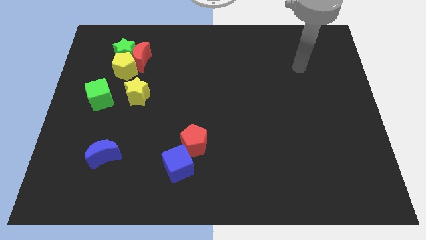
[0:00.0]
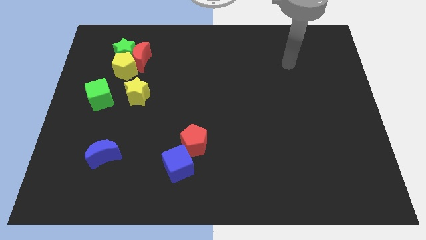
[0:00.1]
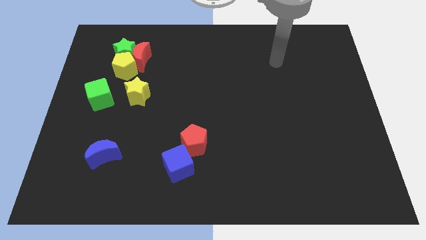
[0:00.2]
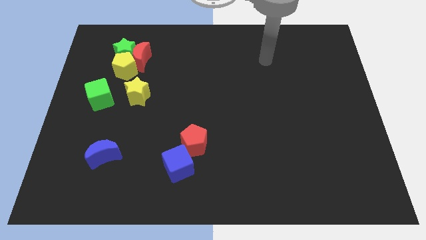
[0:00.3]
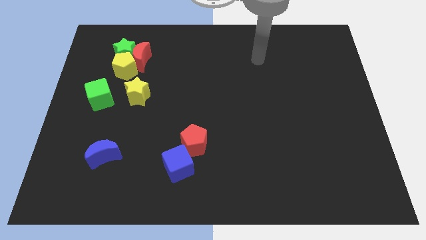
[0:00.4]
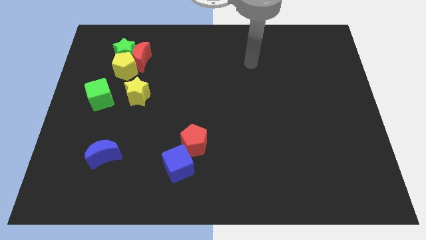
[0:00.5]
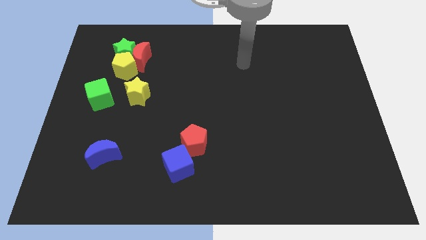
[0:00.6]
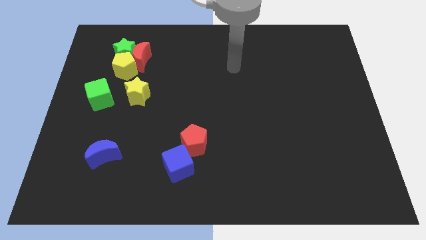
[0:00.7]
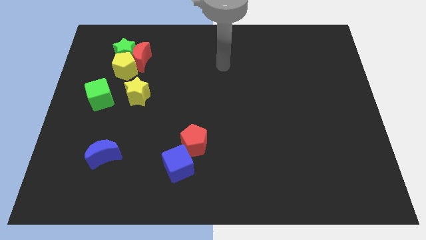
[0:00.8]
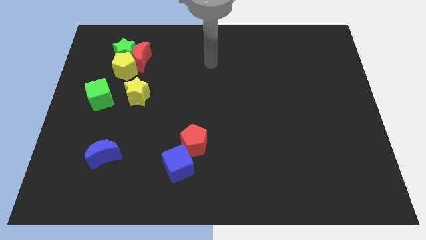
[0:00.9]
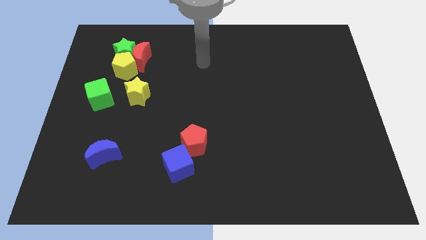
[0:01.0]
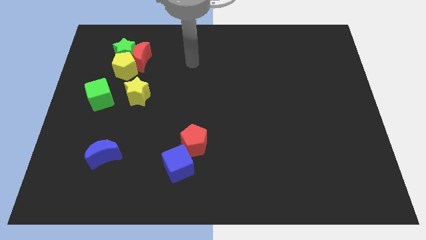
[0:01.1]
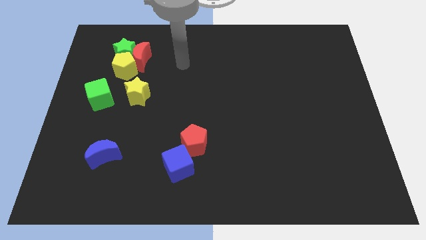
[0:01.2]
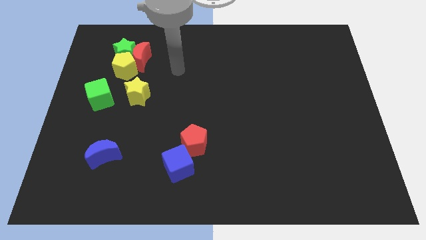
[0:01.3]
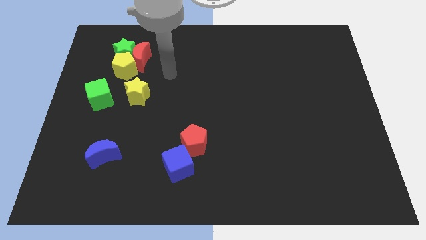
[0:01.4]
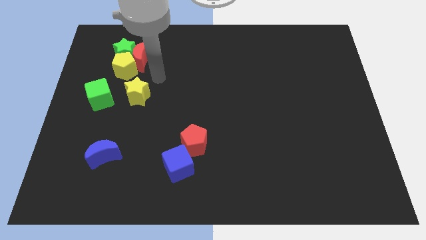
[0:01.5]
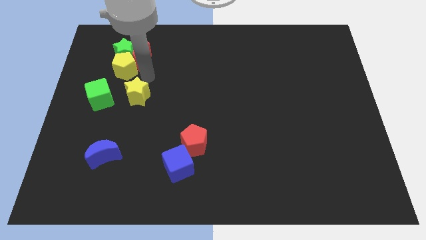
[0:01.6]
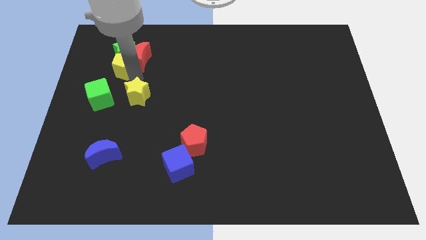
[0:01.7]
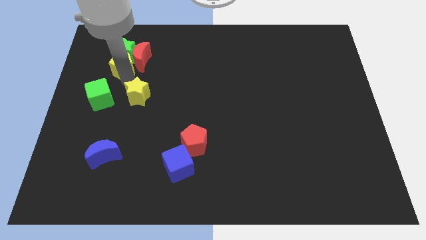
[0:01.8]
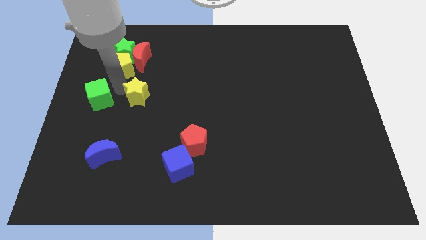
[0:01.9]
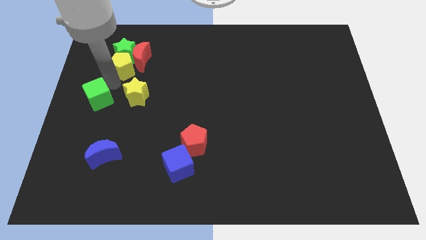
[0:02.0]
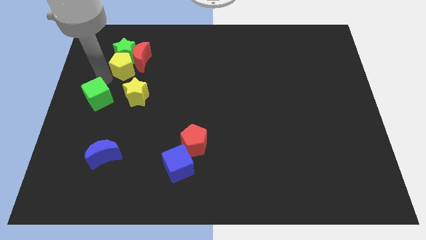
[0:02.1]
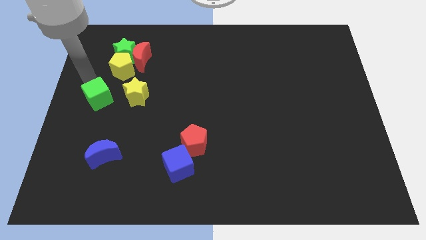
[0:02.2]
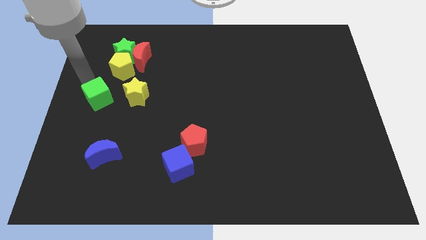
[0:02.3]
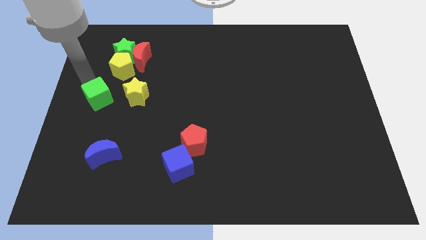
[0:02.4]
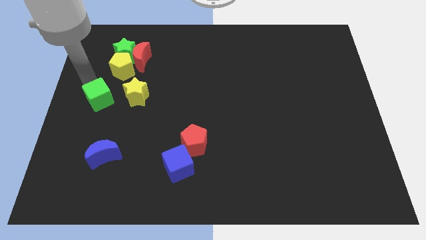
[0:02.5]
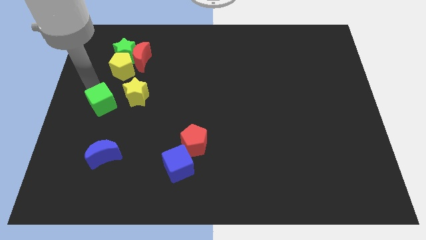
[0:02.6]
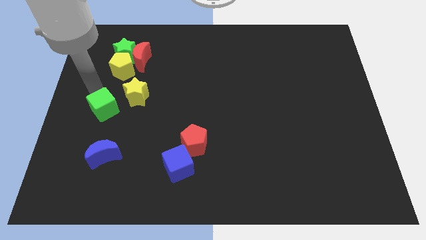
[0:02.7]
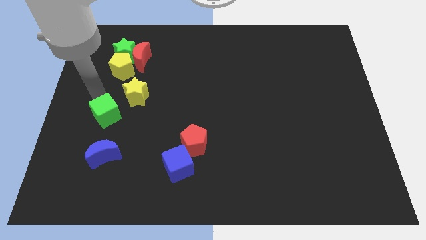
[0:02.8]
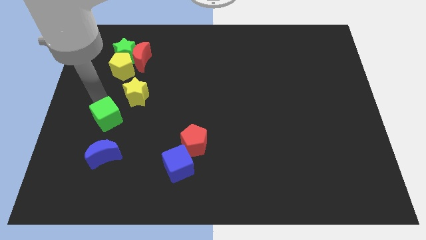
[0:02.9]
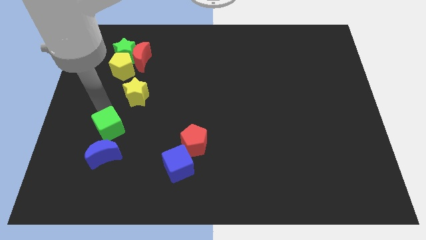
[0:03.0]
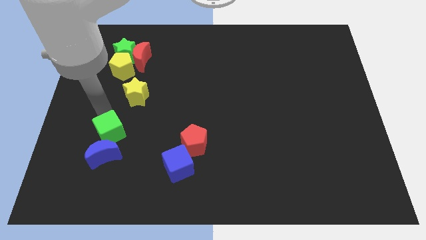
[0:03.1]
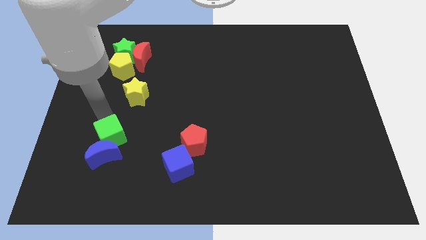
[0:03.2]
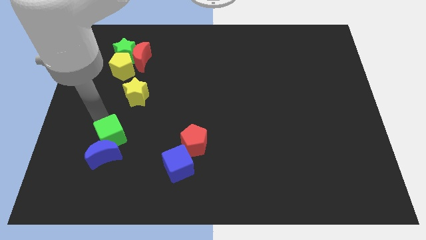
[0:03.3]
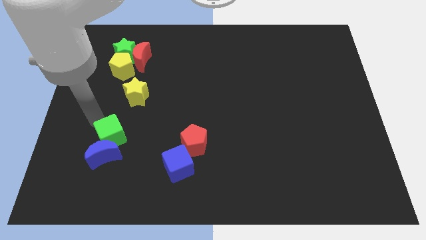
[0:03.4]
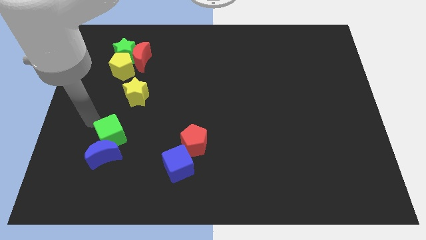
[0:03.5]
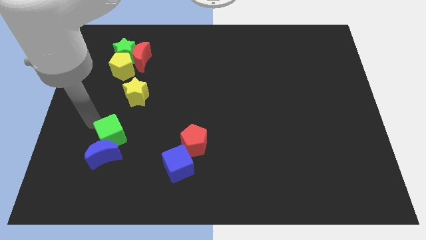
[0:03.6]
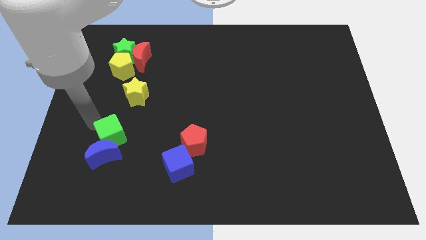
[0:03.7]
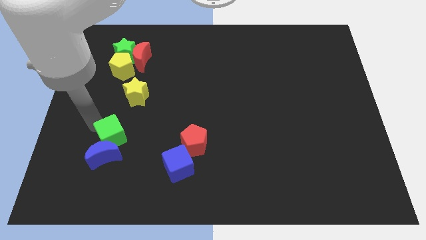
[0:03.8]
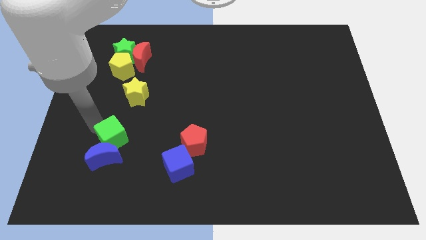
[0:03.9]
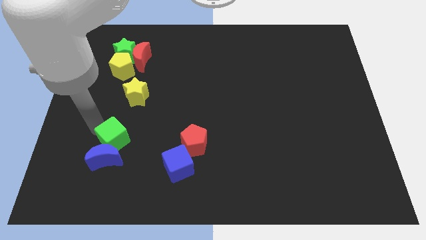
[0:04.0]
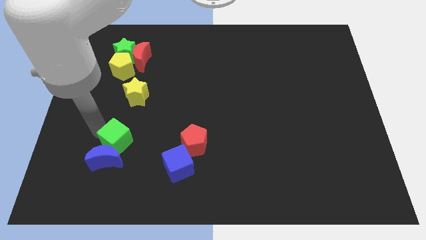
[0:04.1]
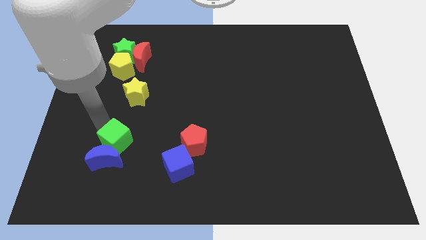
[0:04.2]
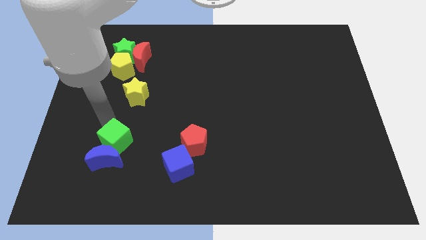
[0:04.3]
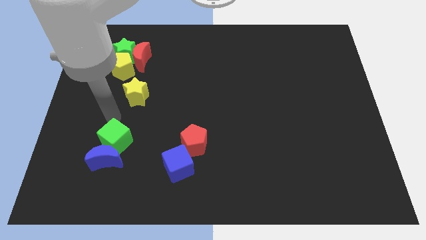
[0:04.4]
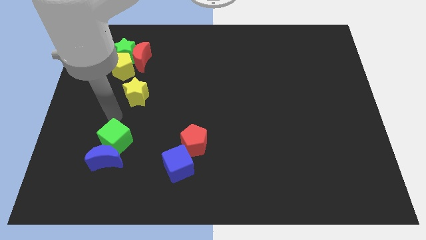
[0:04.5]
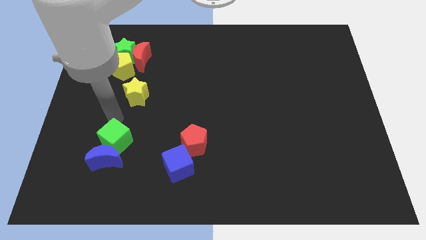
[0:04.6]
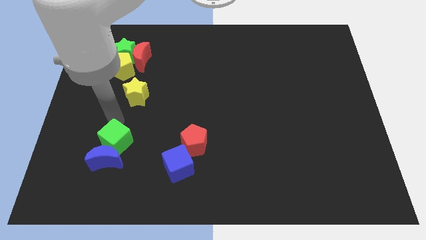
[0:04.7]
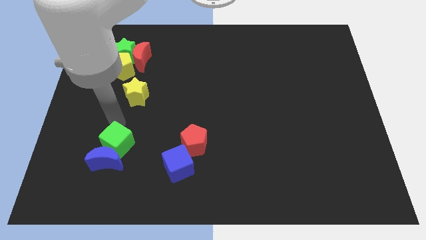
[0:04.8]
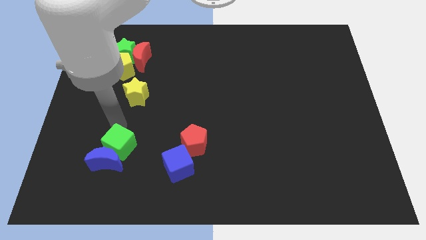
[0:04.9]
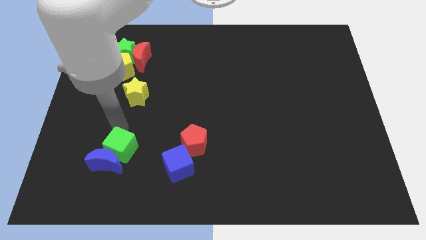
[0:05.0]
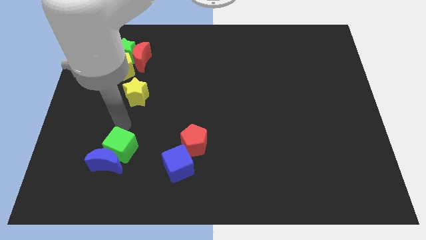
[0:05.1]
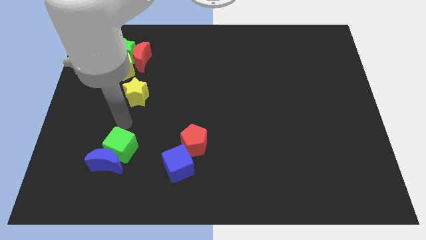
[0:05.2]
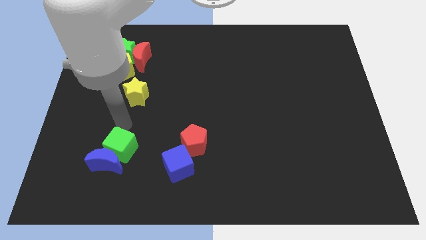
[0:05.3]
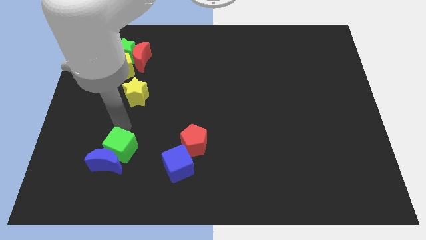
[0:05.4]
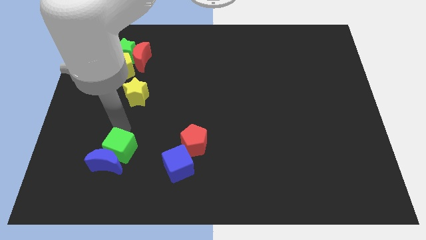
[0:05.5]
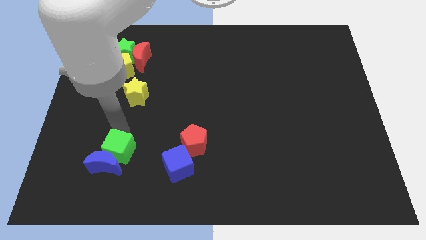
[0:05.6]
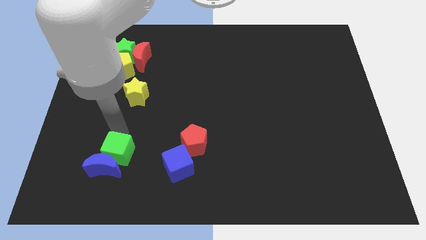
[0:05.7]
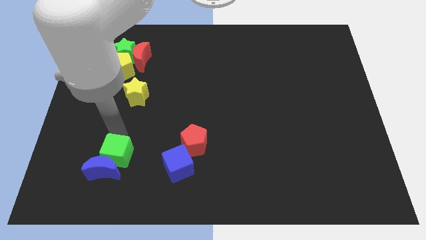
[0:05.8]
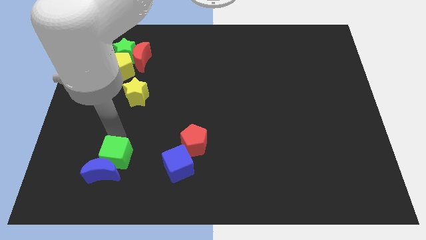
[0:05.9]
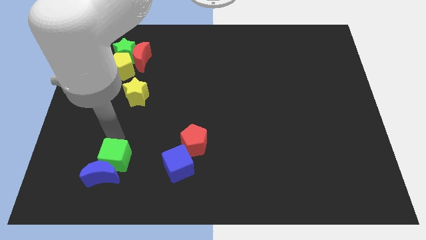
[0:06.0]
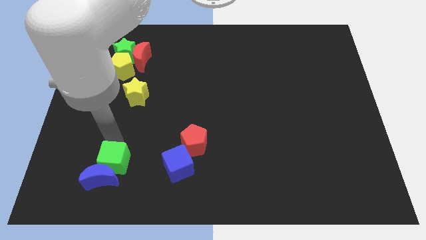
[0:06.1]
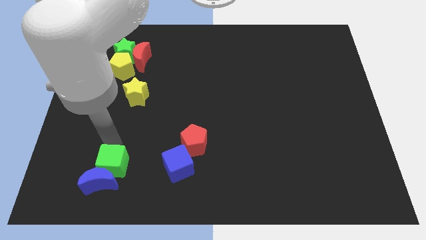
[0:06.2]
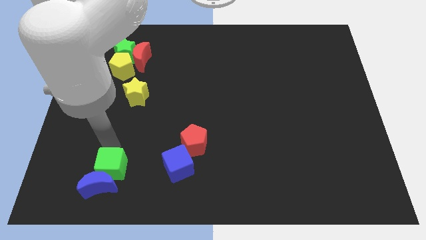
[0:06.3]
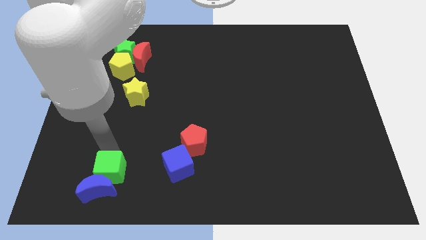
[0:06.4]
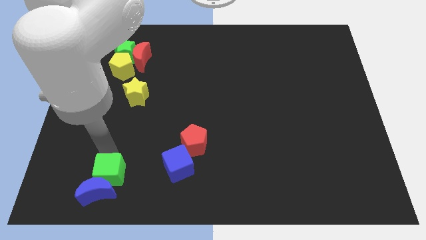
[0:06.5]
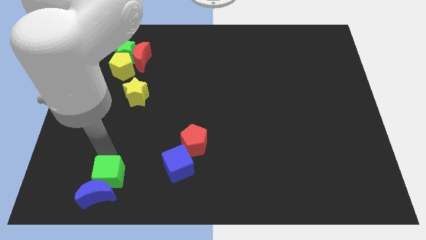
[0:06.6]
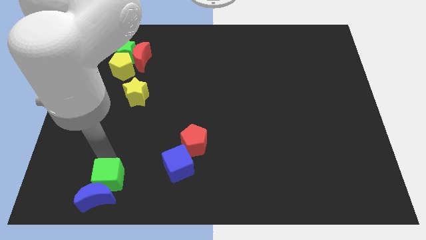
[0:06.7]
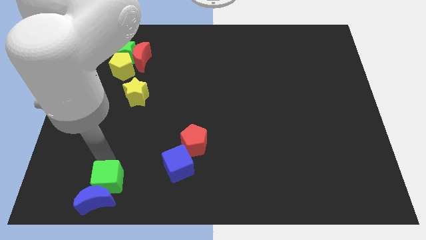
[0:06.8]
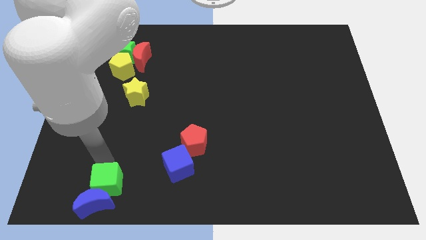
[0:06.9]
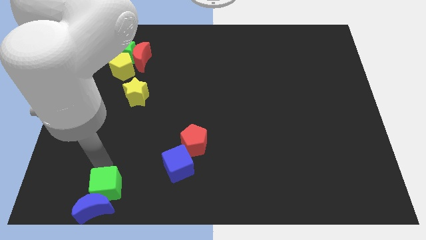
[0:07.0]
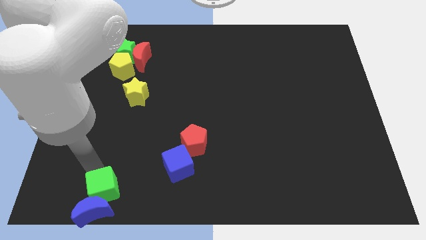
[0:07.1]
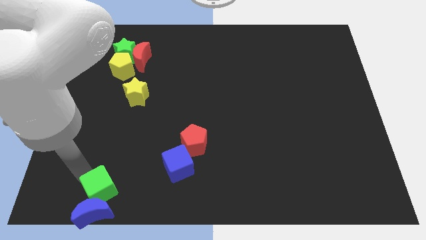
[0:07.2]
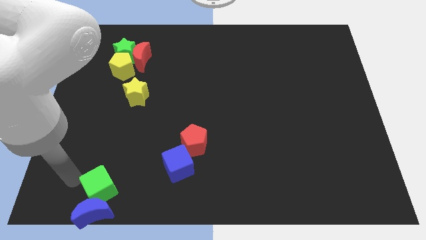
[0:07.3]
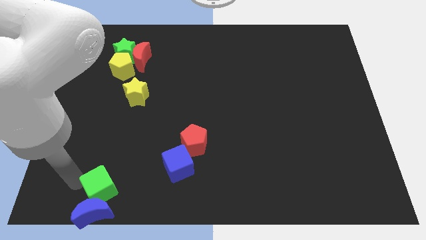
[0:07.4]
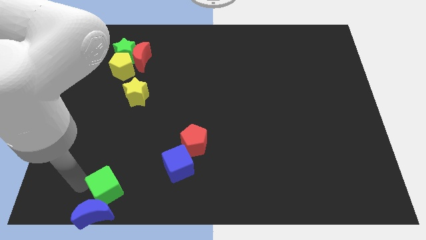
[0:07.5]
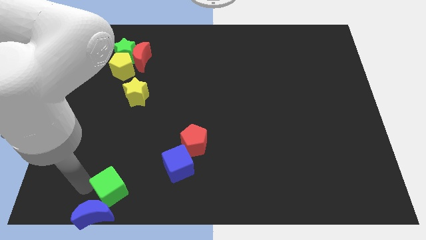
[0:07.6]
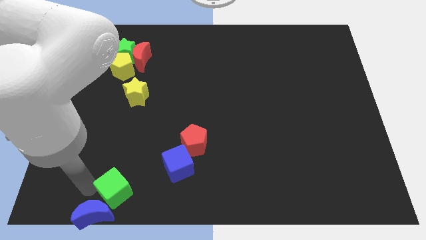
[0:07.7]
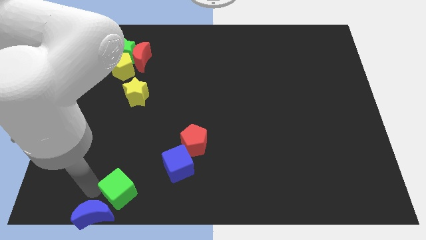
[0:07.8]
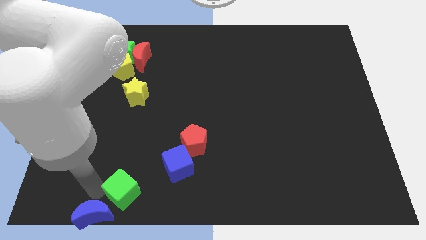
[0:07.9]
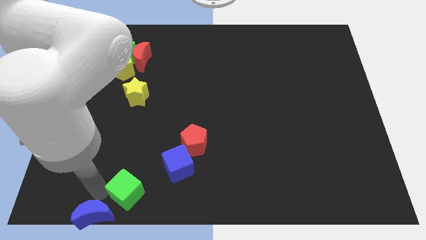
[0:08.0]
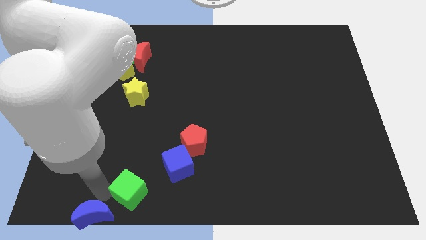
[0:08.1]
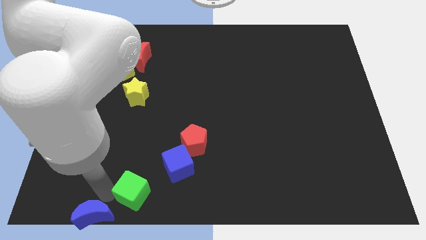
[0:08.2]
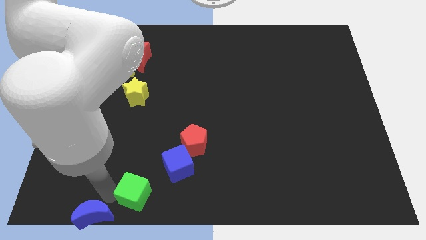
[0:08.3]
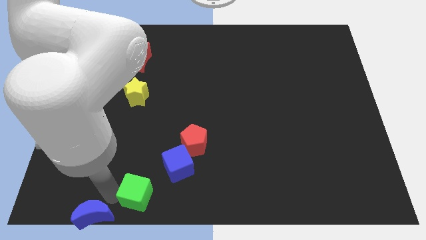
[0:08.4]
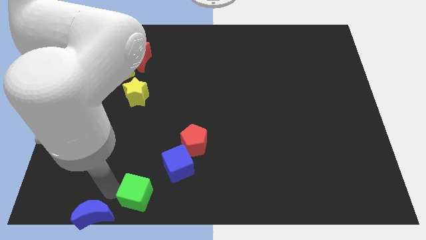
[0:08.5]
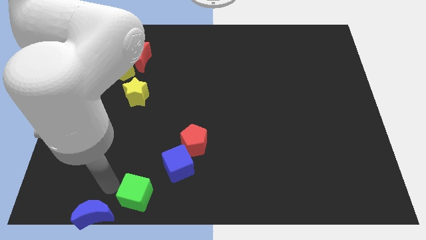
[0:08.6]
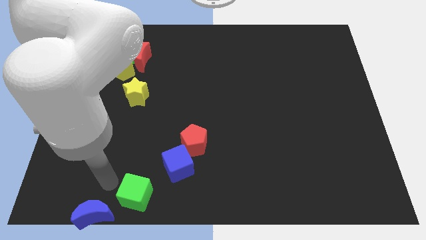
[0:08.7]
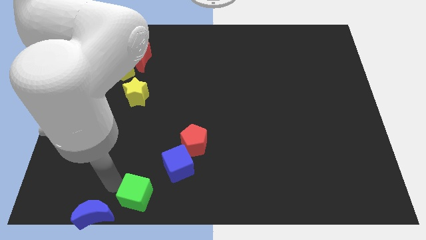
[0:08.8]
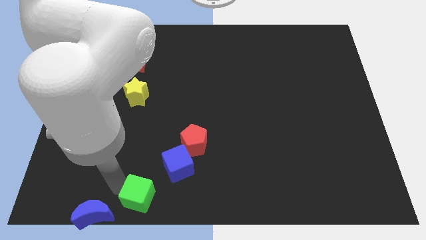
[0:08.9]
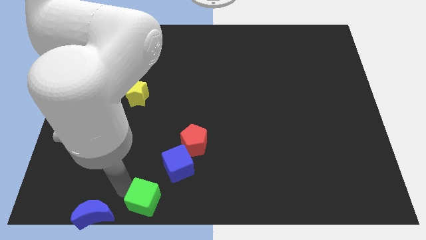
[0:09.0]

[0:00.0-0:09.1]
push the green cube to the bottom
